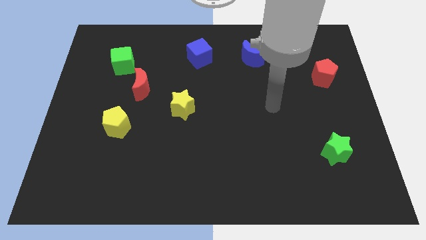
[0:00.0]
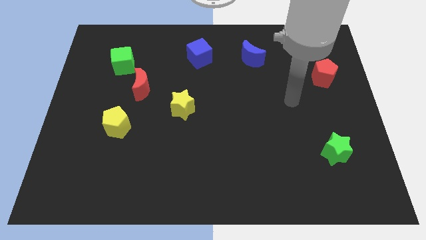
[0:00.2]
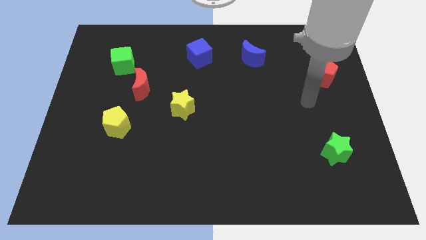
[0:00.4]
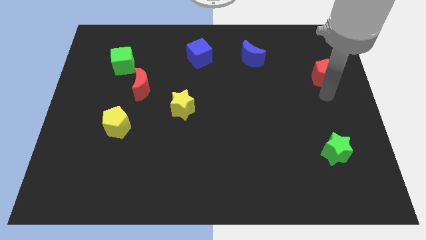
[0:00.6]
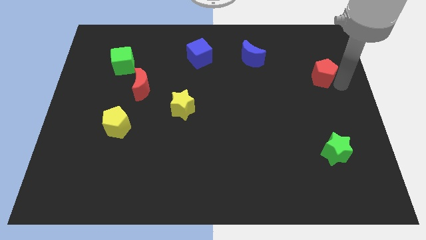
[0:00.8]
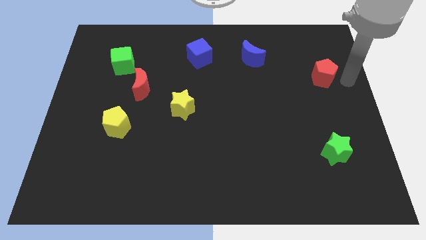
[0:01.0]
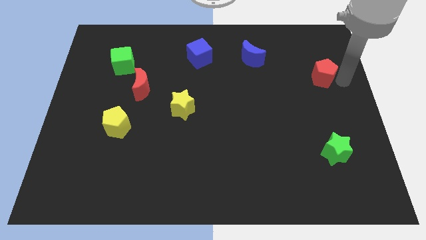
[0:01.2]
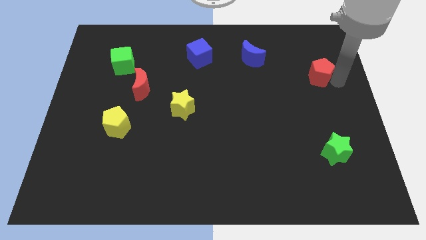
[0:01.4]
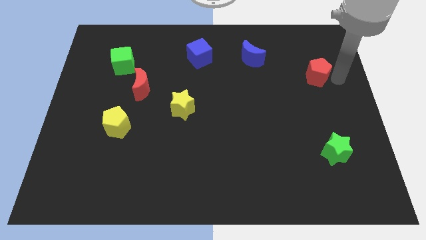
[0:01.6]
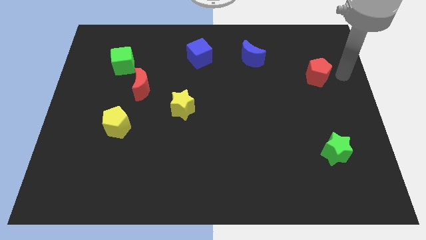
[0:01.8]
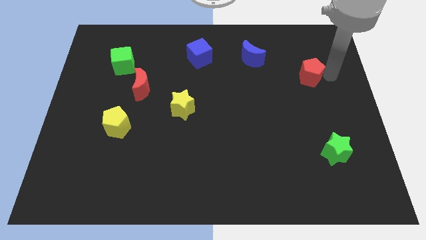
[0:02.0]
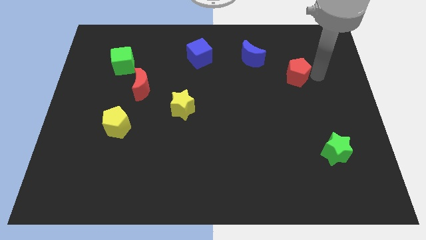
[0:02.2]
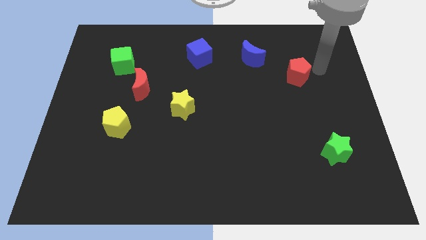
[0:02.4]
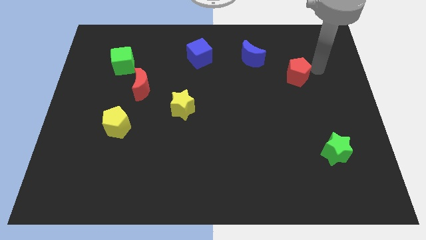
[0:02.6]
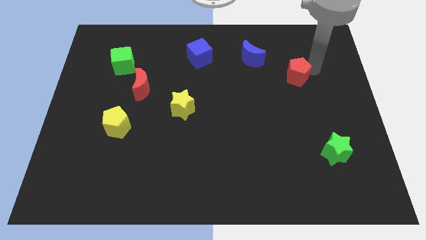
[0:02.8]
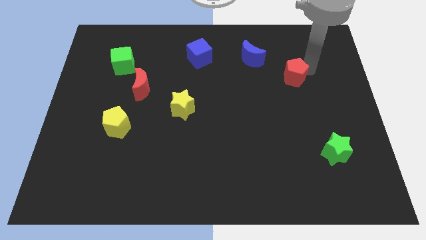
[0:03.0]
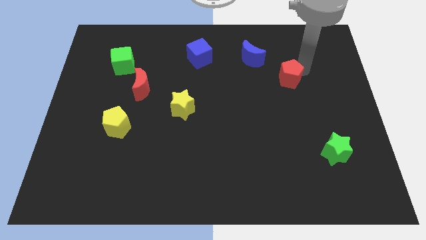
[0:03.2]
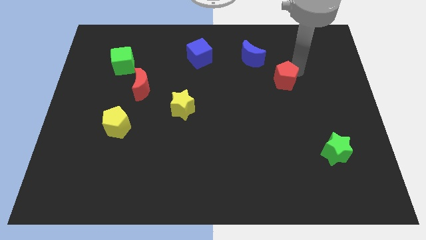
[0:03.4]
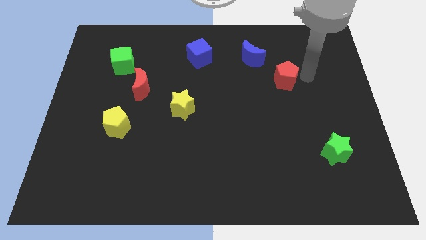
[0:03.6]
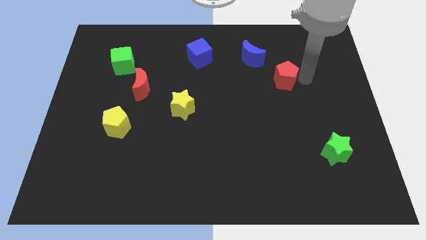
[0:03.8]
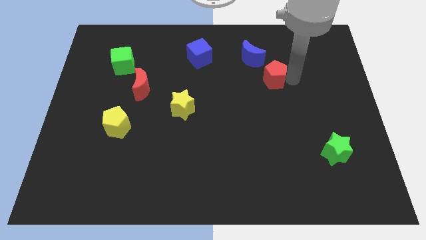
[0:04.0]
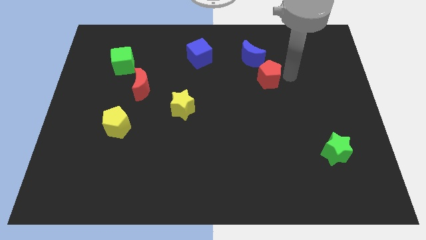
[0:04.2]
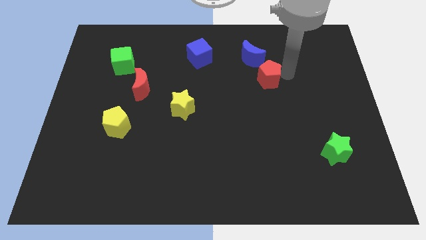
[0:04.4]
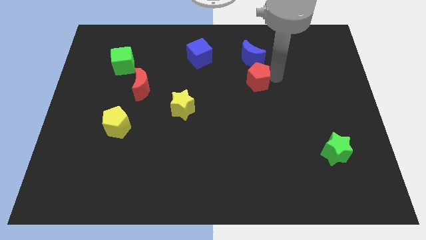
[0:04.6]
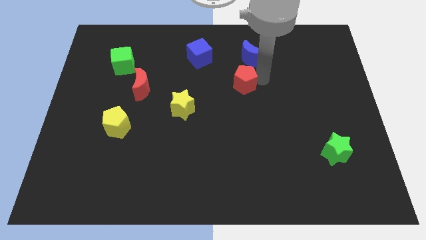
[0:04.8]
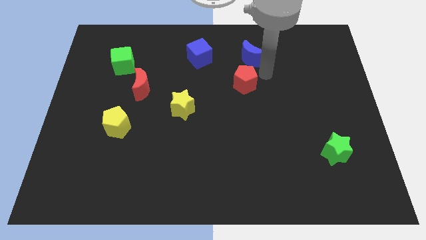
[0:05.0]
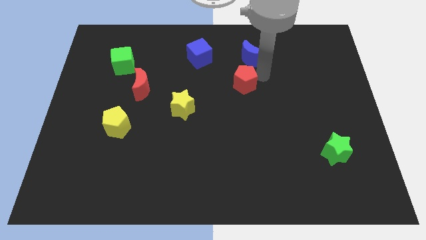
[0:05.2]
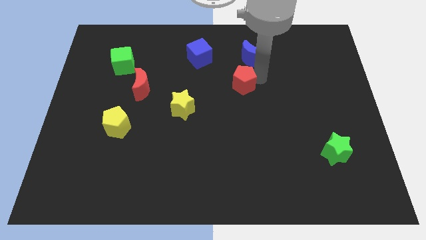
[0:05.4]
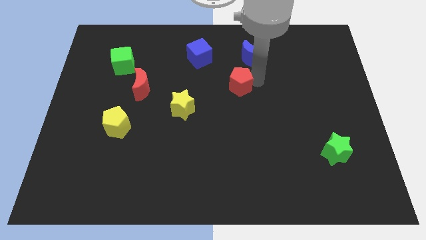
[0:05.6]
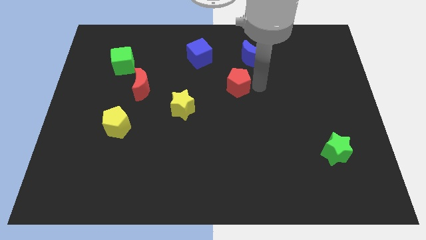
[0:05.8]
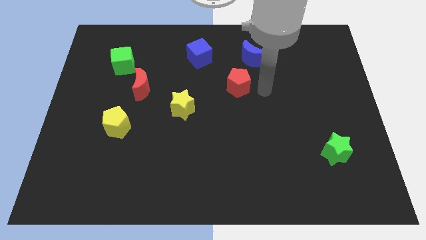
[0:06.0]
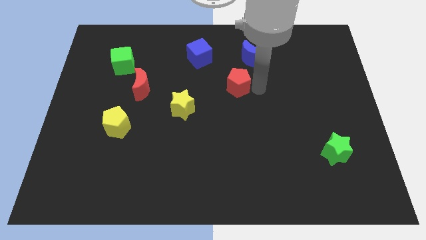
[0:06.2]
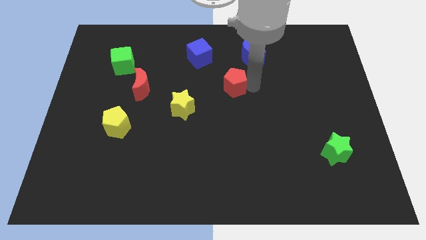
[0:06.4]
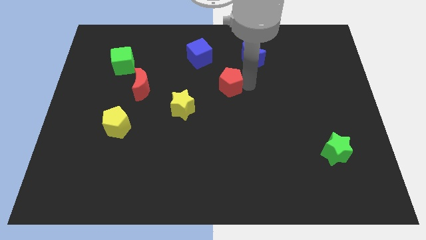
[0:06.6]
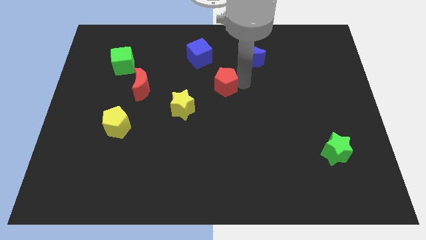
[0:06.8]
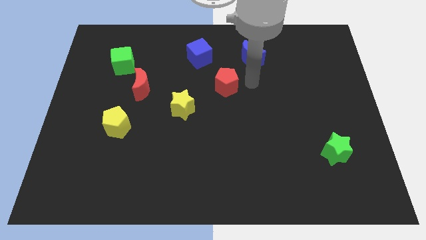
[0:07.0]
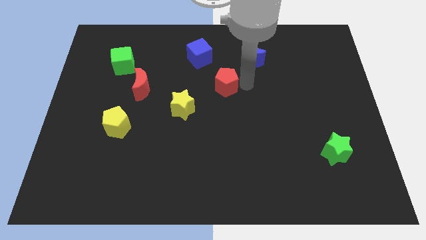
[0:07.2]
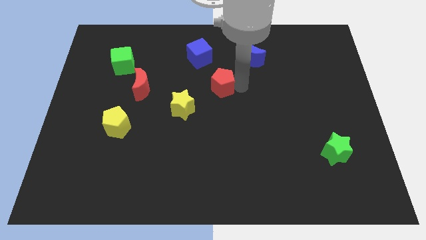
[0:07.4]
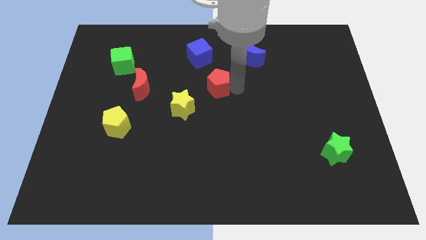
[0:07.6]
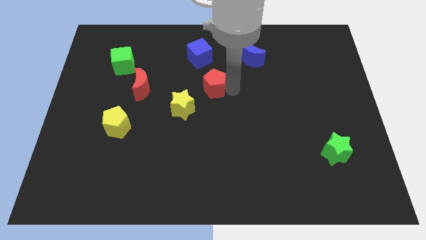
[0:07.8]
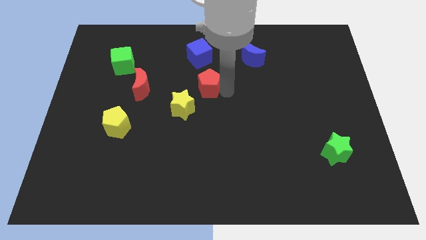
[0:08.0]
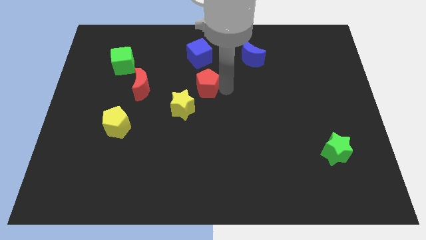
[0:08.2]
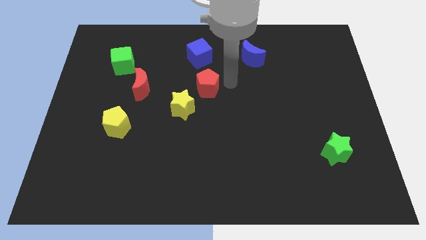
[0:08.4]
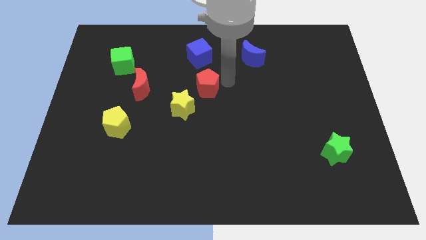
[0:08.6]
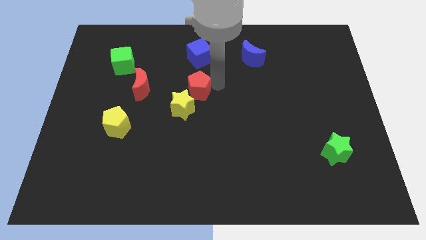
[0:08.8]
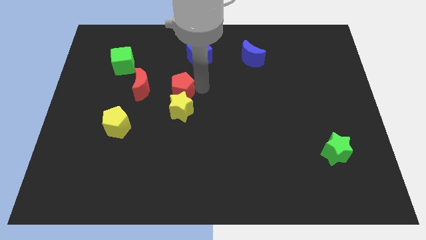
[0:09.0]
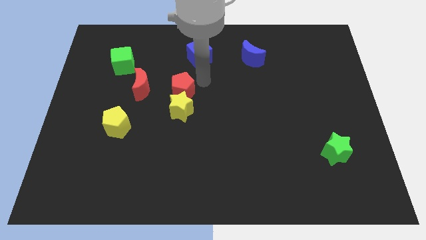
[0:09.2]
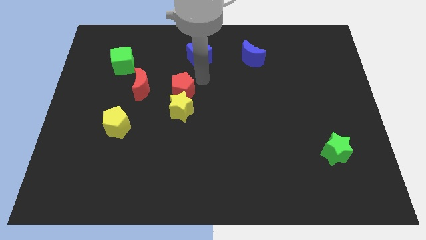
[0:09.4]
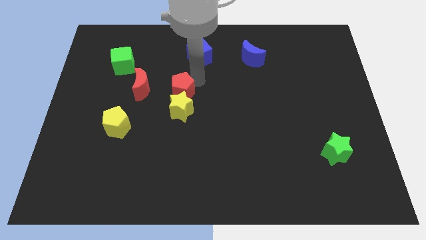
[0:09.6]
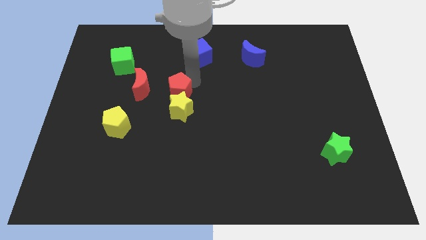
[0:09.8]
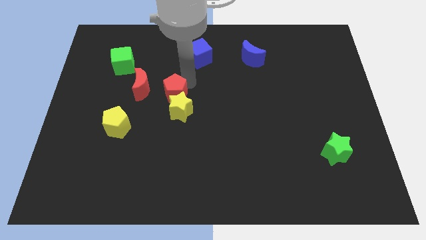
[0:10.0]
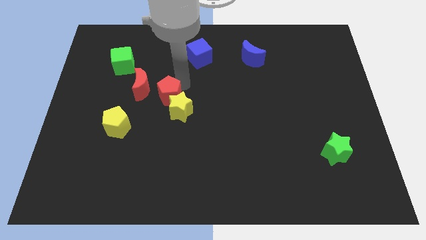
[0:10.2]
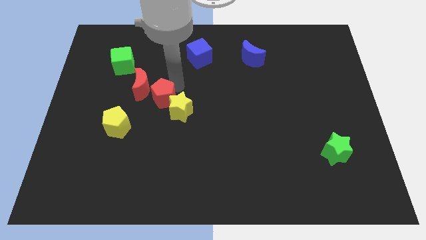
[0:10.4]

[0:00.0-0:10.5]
move the red pentagon to the top right side of the yellow pentagon

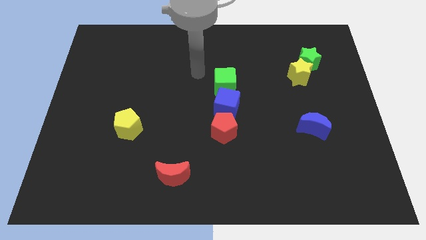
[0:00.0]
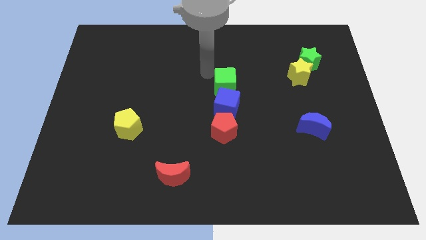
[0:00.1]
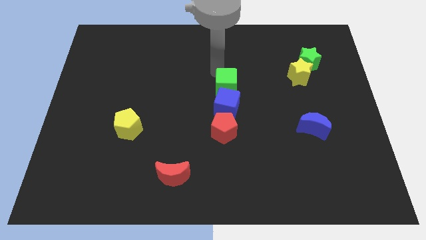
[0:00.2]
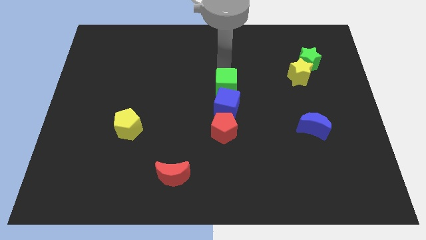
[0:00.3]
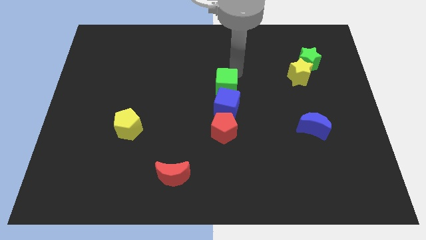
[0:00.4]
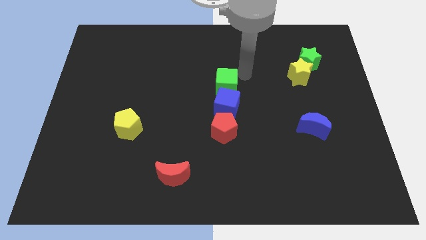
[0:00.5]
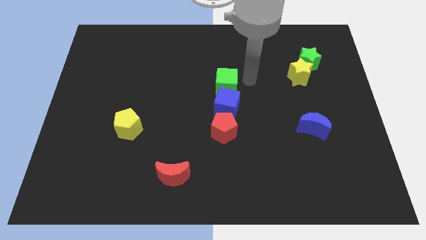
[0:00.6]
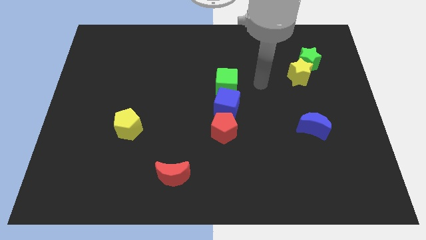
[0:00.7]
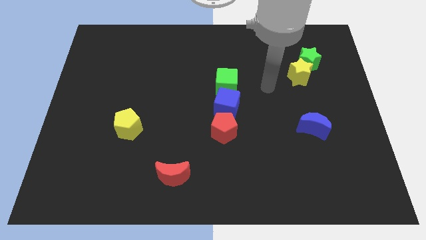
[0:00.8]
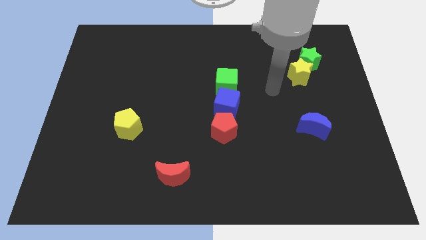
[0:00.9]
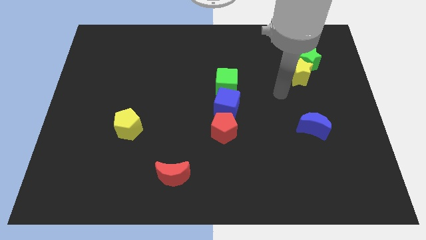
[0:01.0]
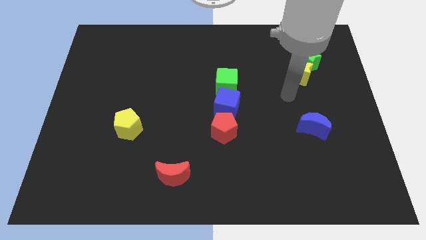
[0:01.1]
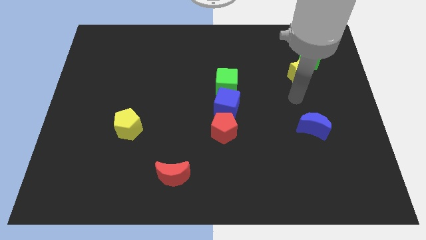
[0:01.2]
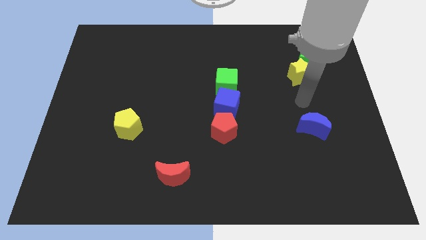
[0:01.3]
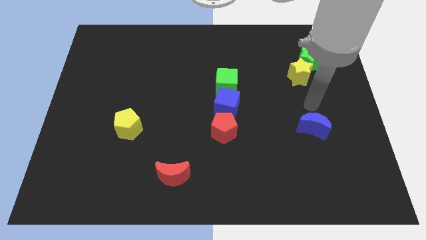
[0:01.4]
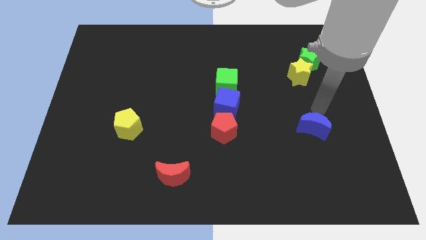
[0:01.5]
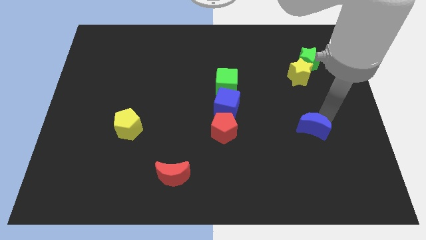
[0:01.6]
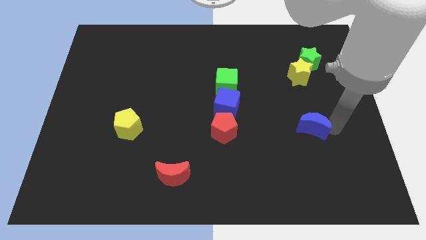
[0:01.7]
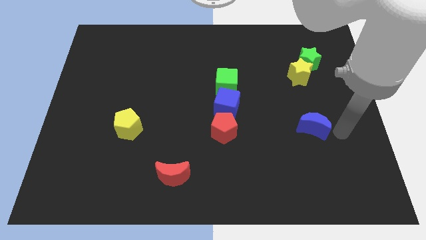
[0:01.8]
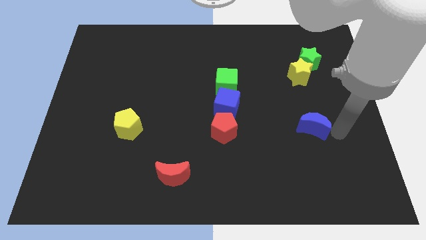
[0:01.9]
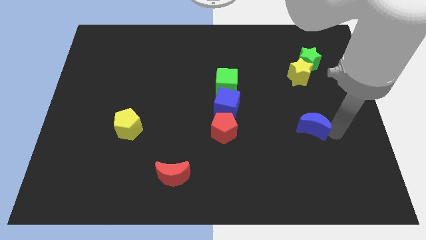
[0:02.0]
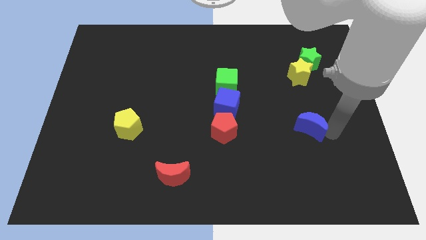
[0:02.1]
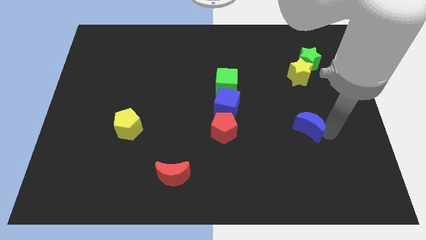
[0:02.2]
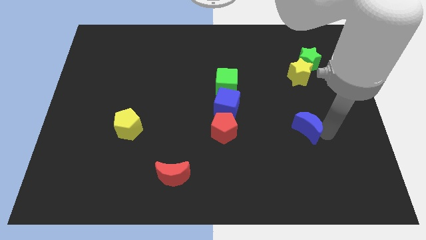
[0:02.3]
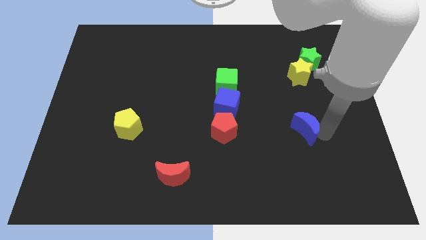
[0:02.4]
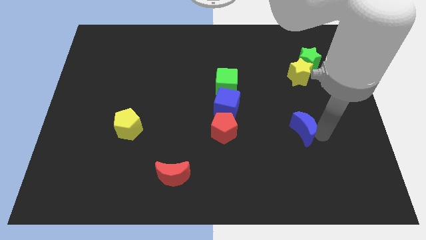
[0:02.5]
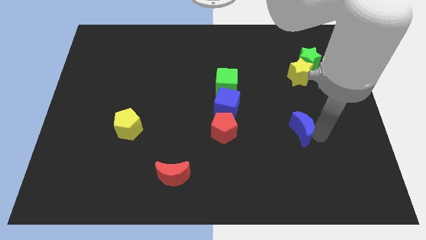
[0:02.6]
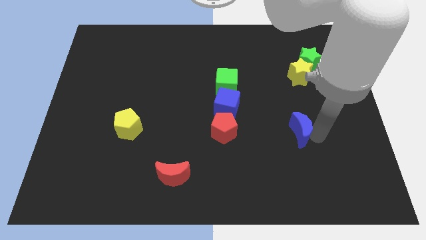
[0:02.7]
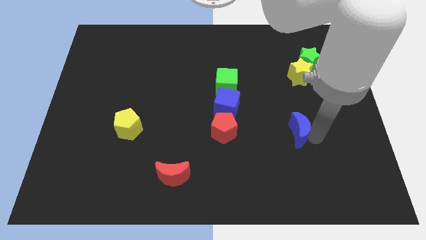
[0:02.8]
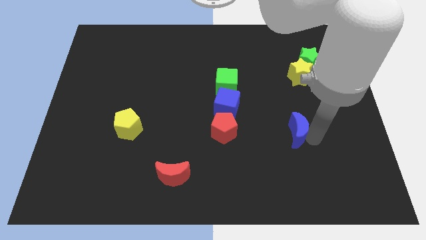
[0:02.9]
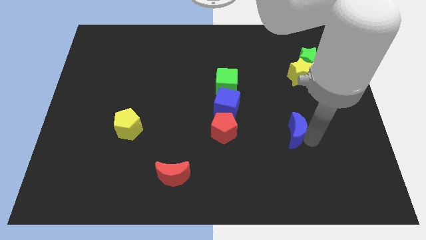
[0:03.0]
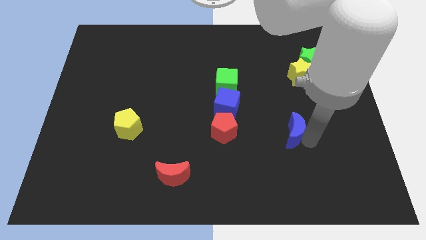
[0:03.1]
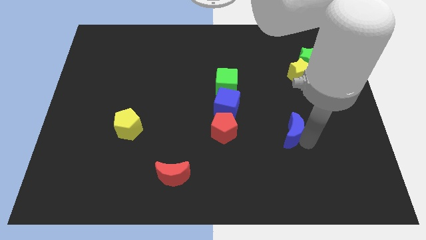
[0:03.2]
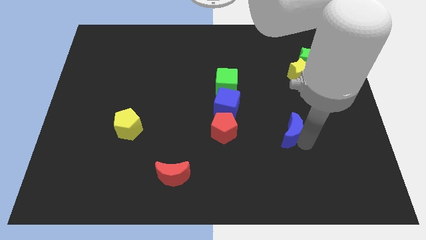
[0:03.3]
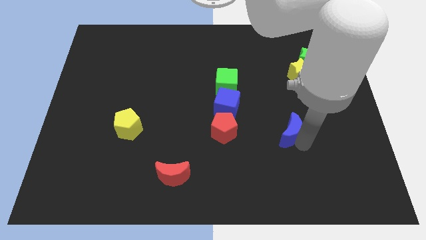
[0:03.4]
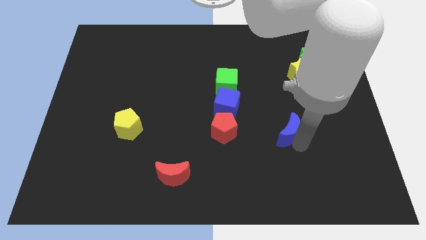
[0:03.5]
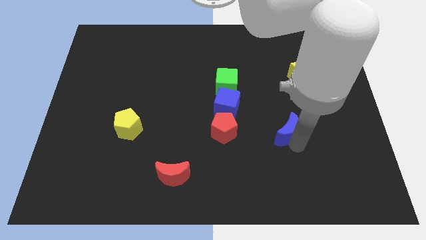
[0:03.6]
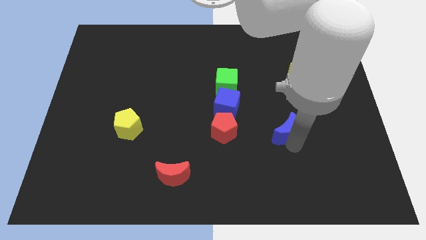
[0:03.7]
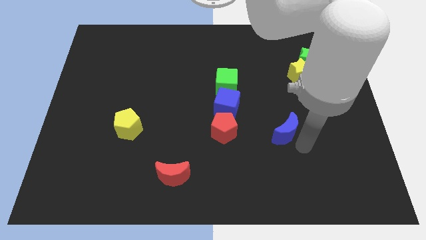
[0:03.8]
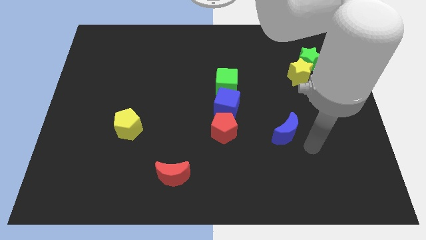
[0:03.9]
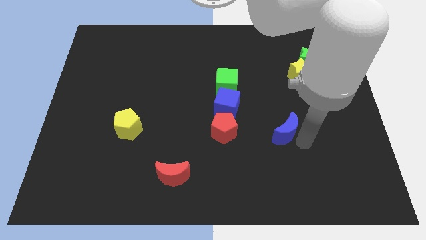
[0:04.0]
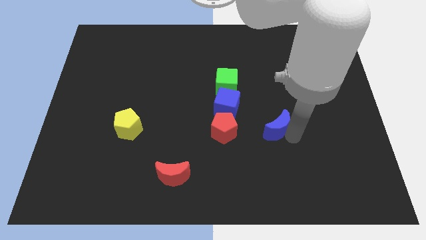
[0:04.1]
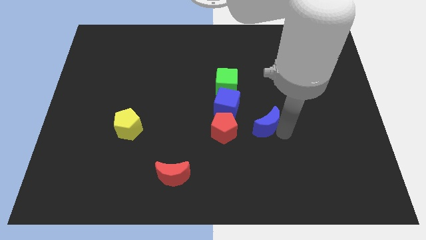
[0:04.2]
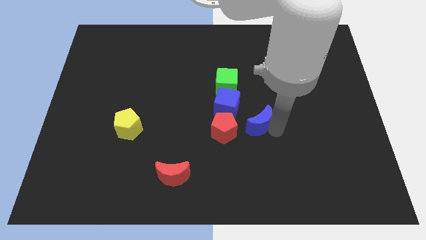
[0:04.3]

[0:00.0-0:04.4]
put the blue moon to the top right side of the red pentagon
